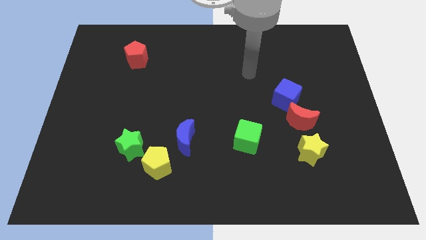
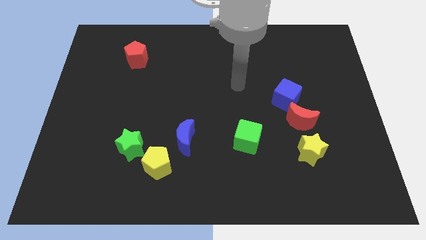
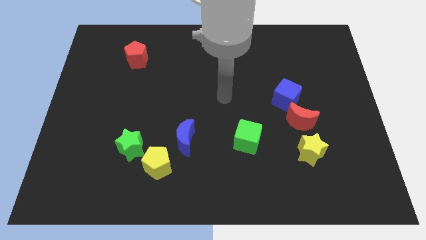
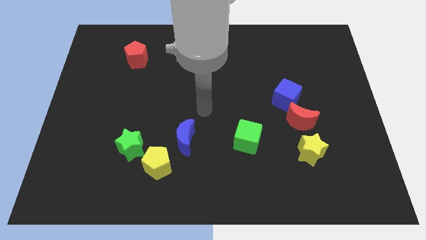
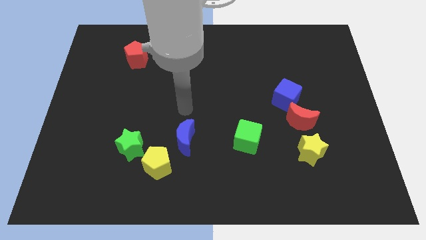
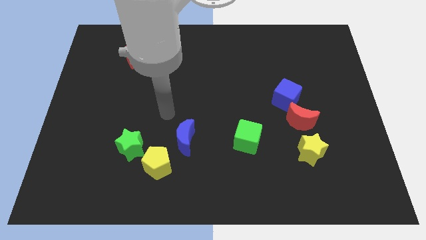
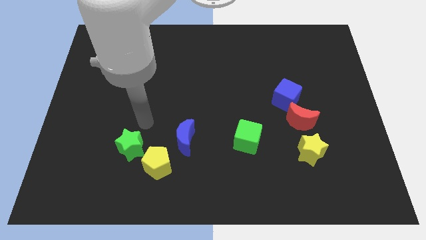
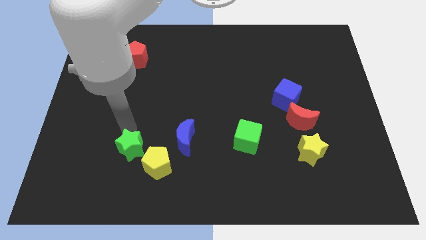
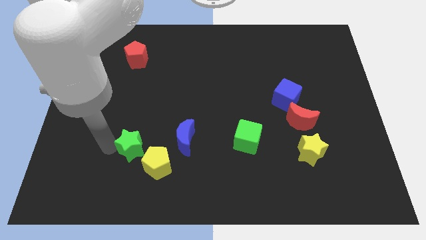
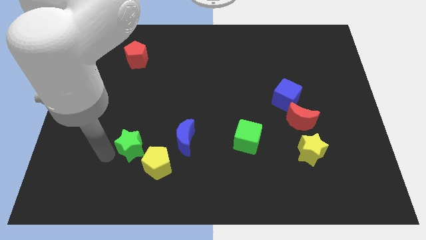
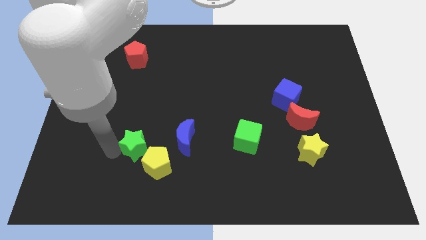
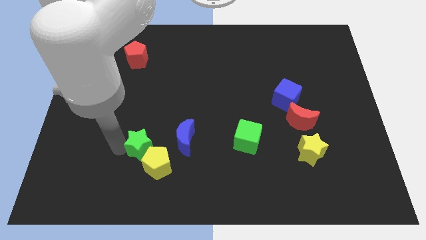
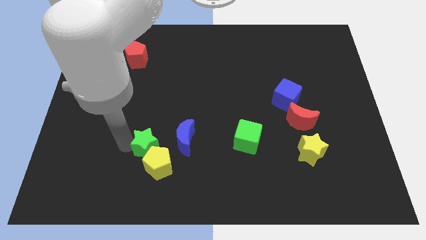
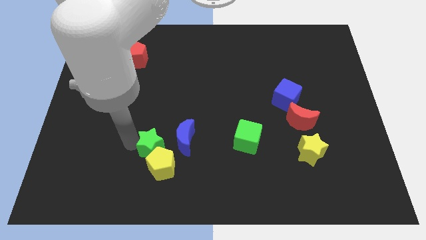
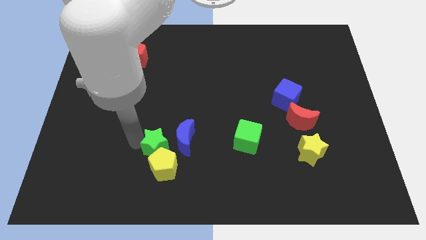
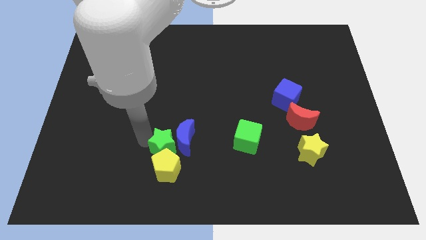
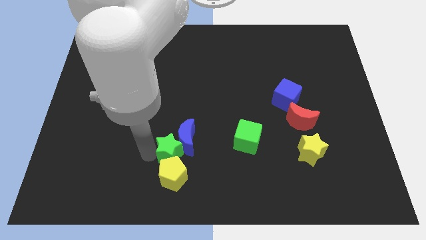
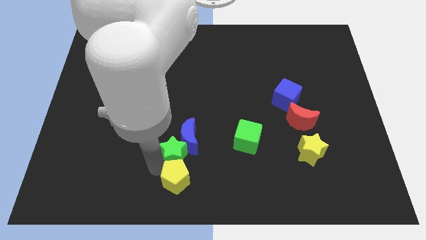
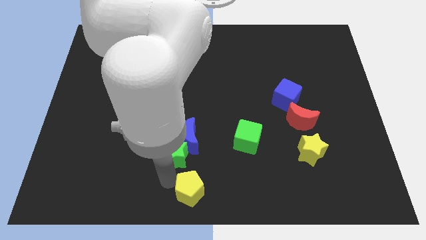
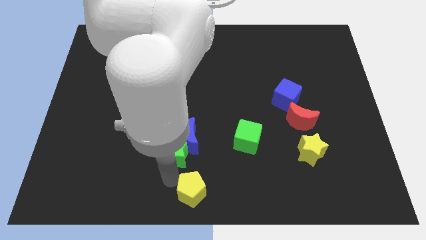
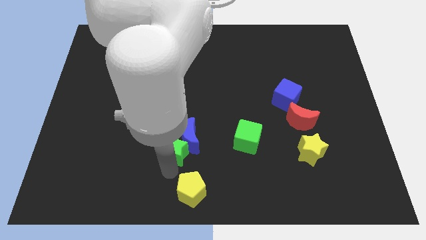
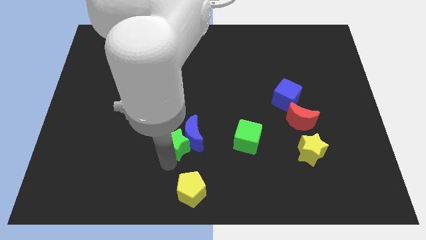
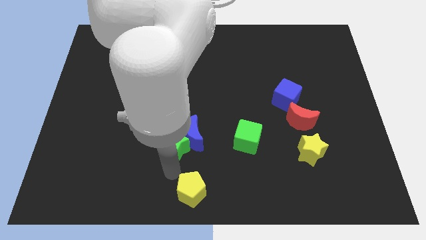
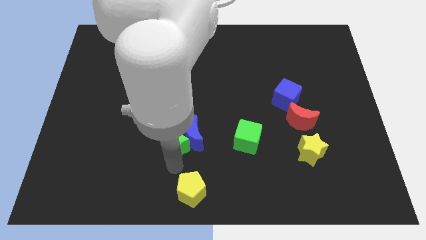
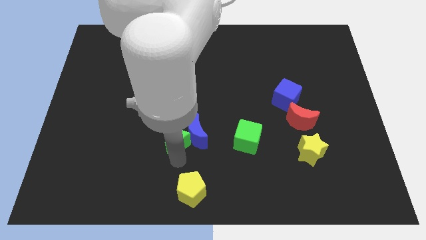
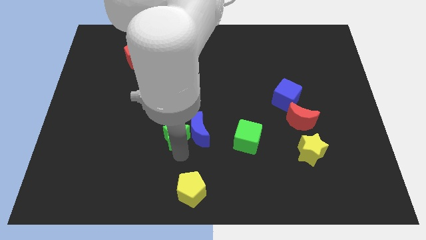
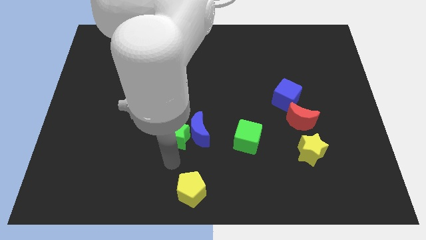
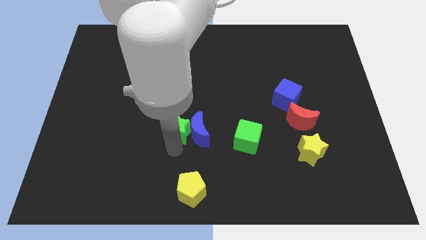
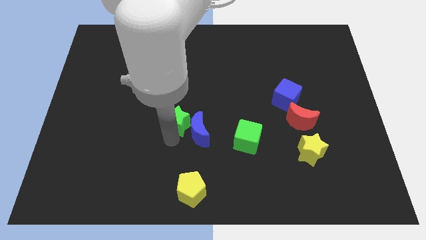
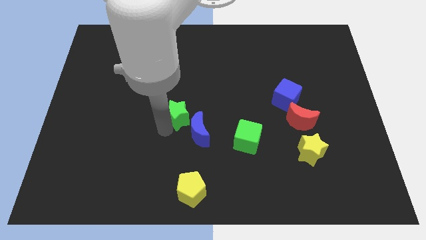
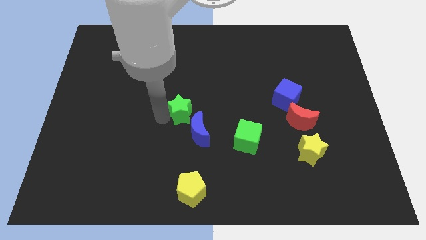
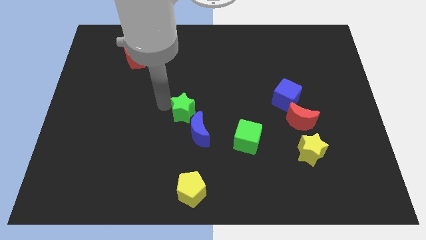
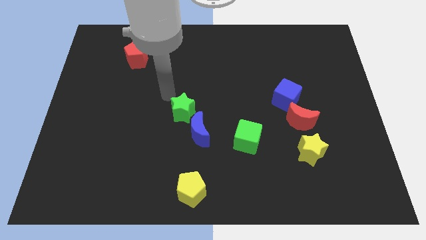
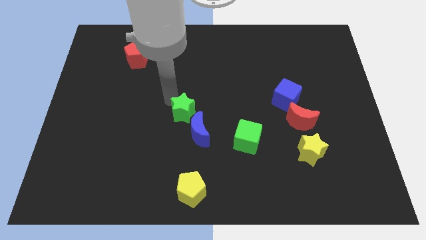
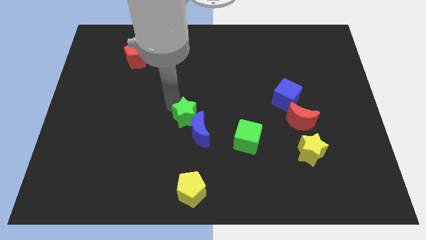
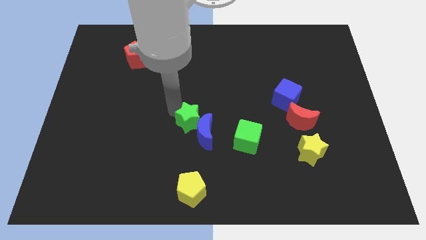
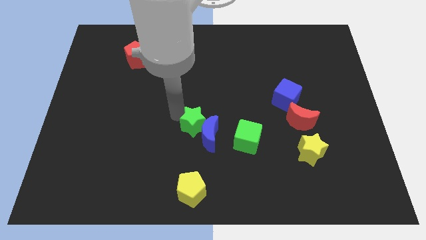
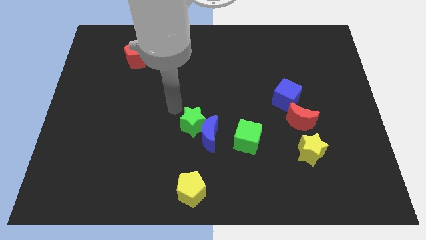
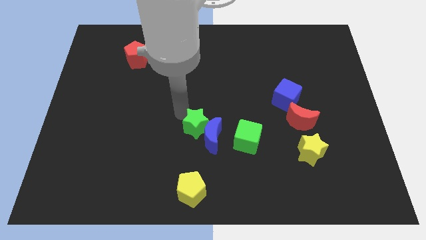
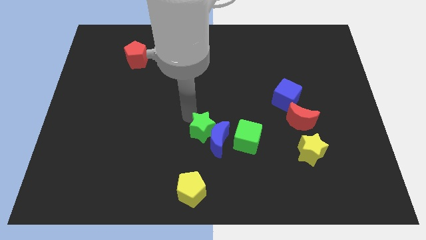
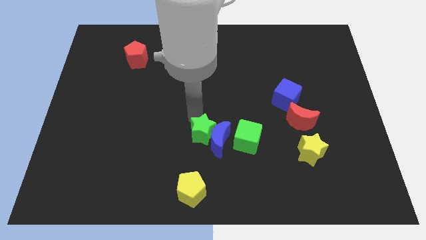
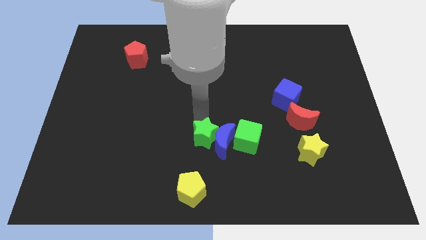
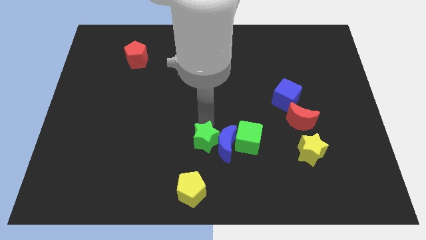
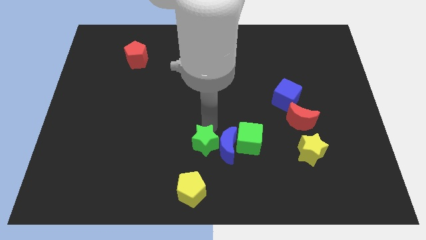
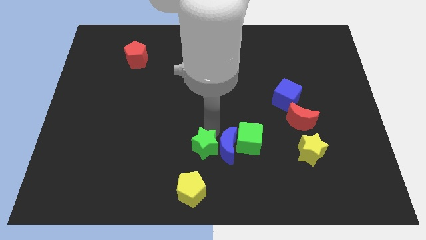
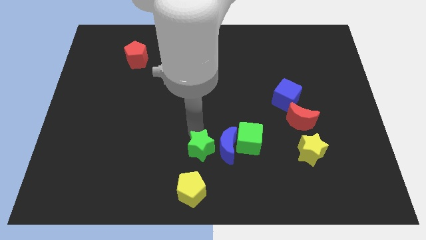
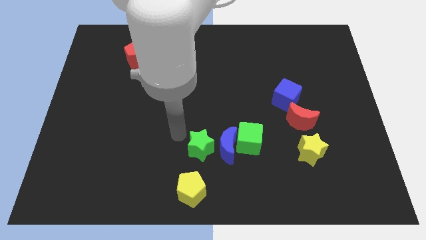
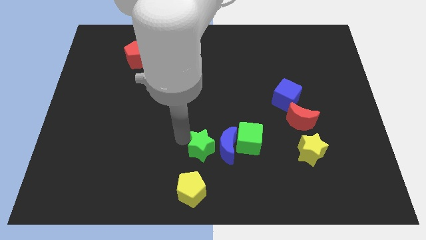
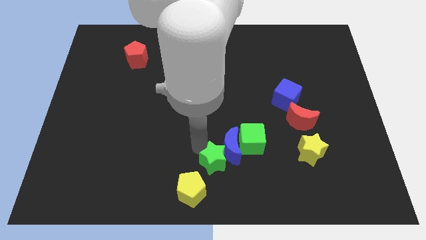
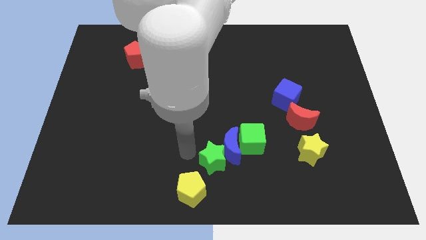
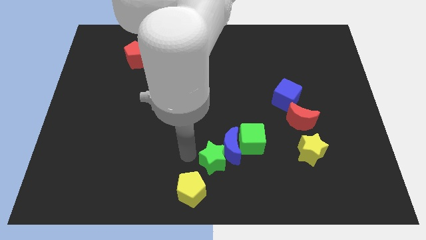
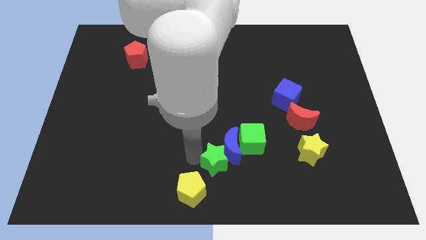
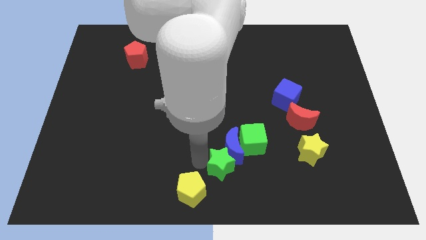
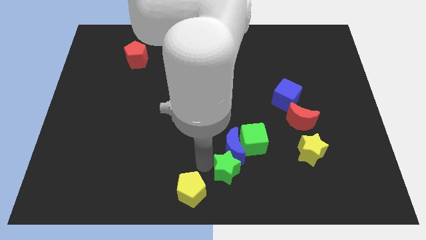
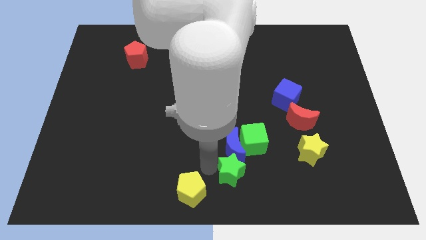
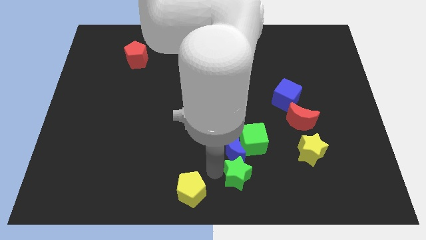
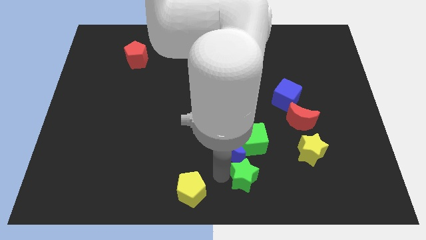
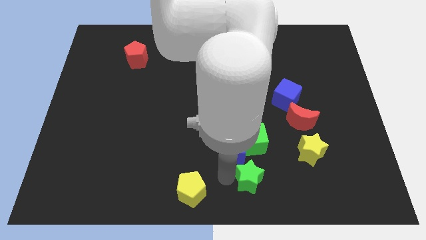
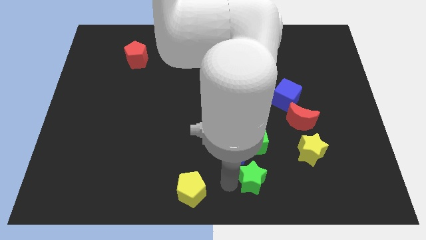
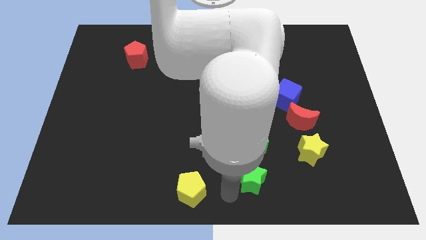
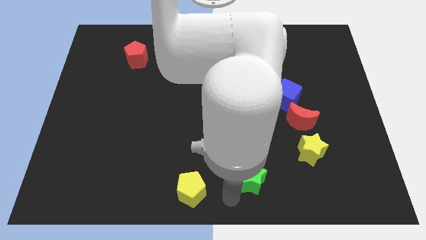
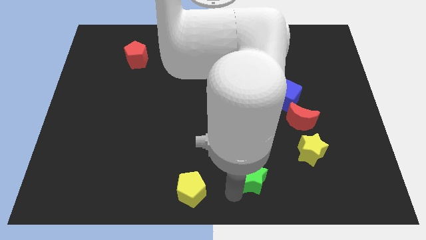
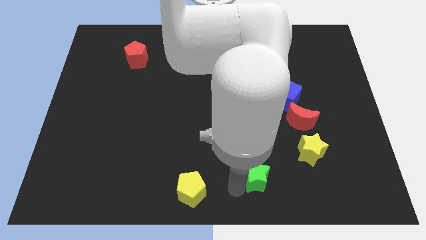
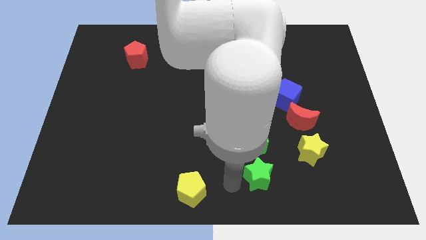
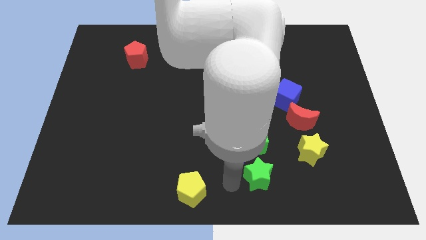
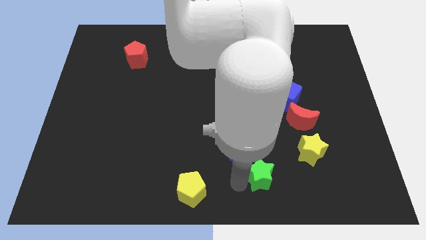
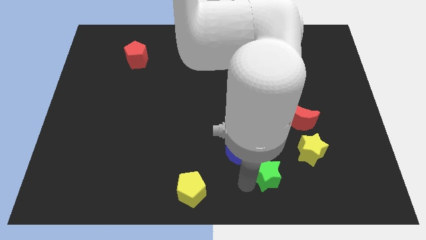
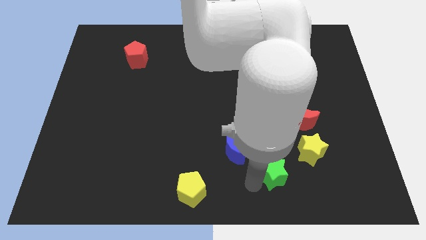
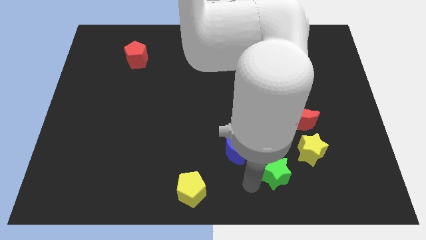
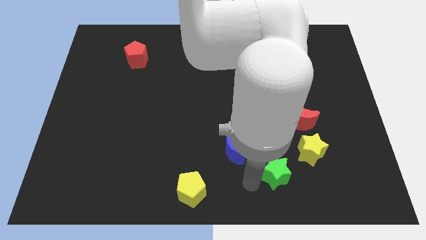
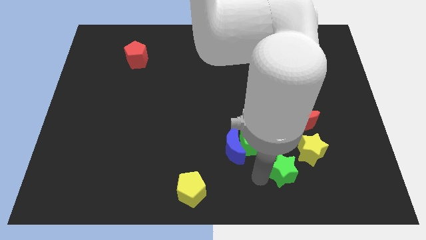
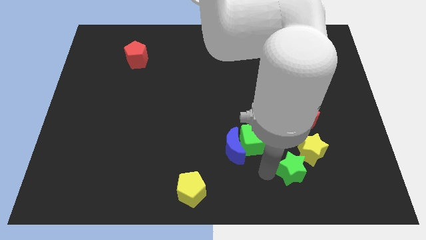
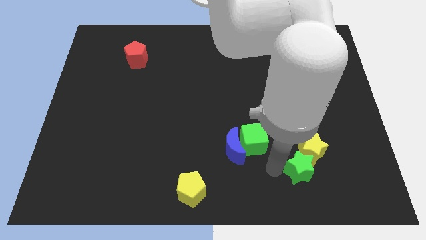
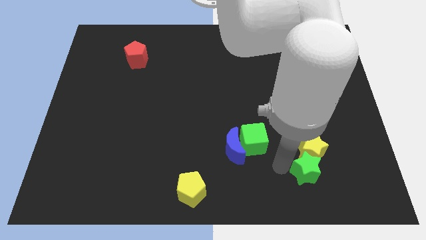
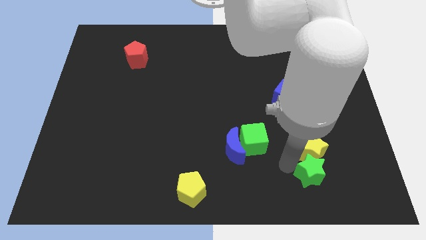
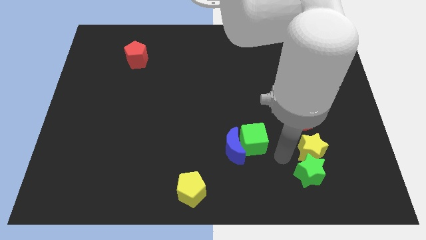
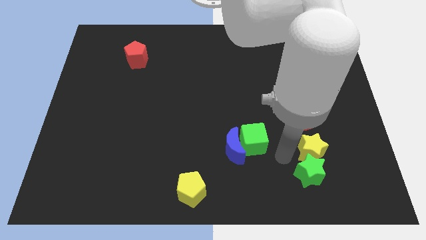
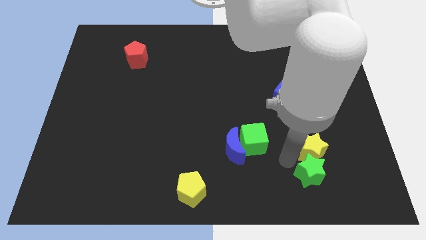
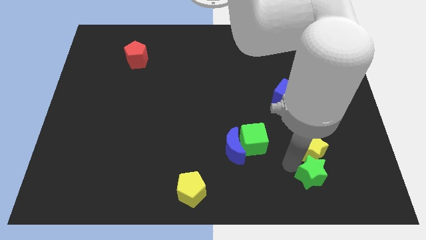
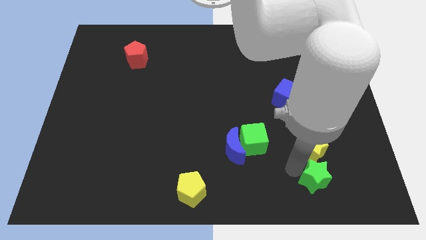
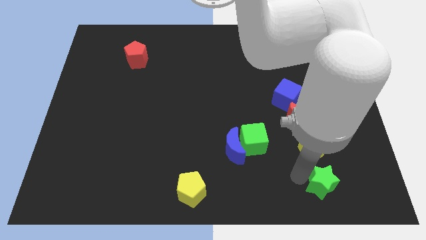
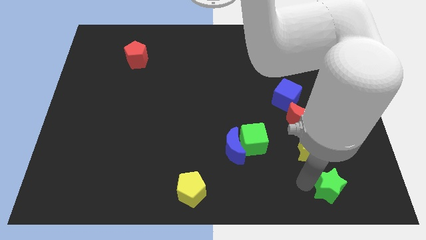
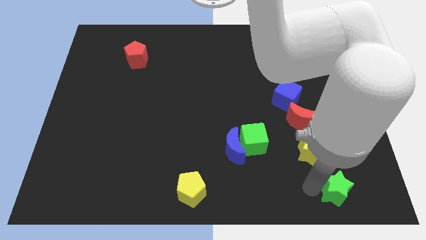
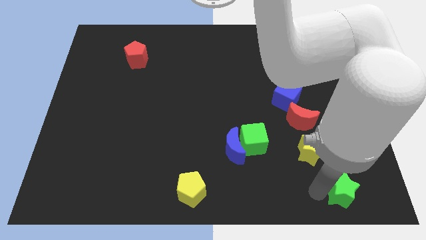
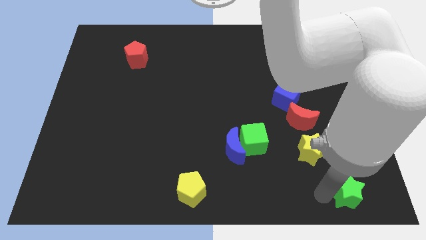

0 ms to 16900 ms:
move the green star to the bottom right of the board
